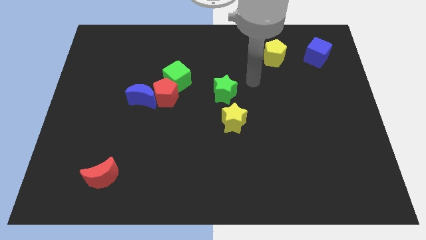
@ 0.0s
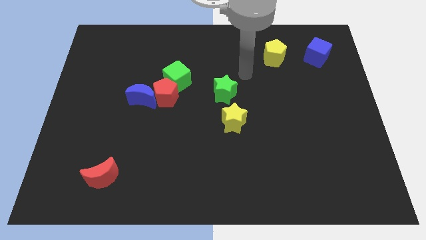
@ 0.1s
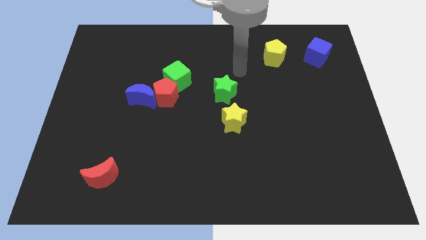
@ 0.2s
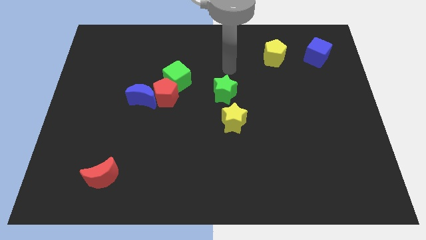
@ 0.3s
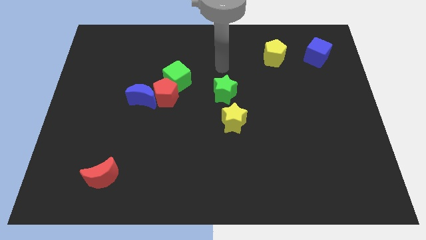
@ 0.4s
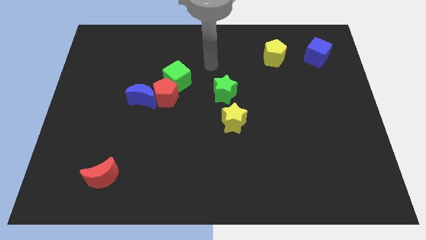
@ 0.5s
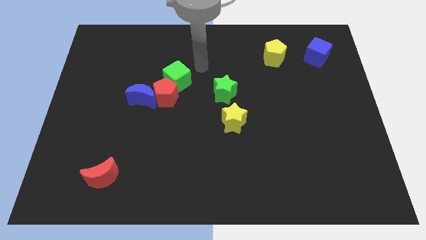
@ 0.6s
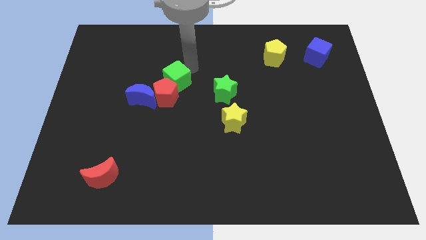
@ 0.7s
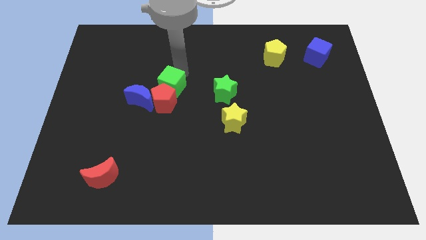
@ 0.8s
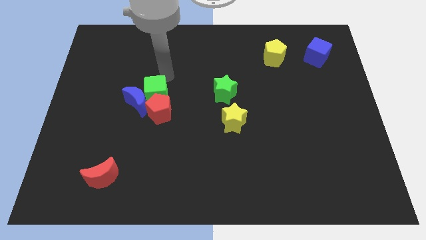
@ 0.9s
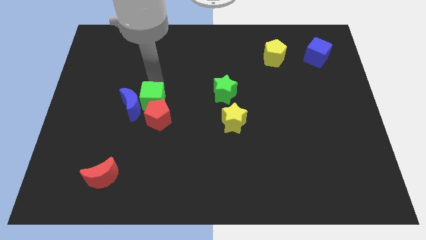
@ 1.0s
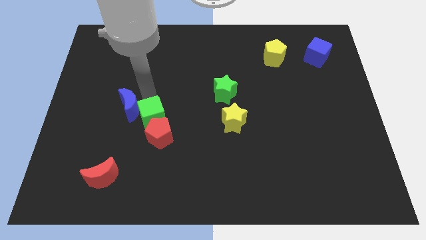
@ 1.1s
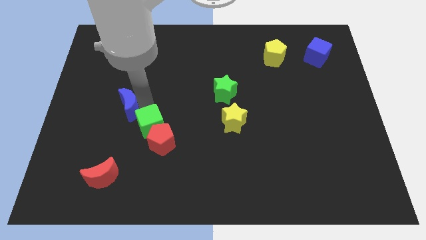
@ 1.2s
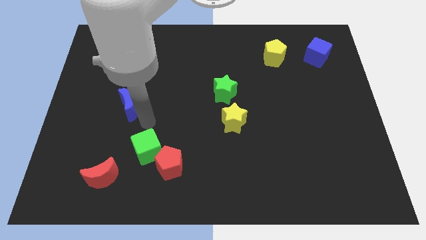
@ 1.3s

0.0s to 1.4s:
move the red pentagon away from the blue moon and green cube

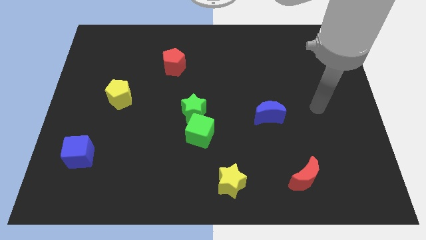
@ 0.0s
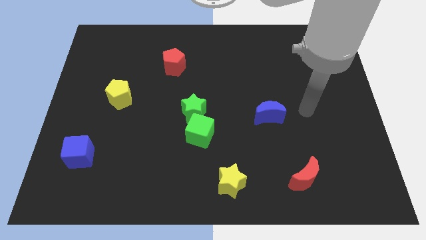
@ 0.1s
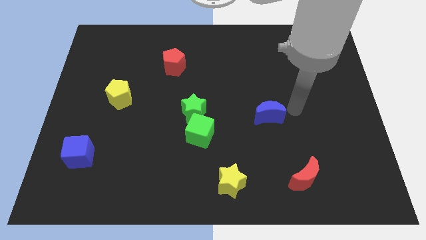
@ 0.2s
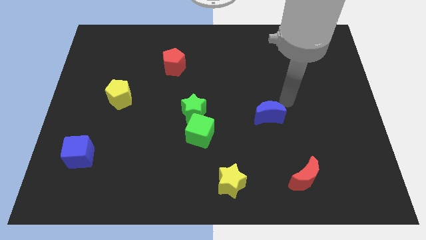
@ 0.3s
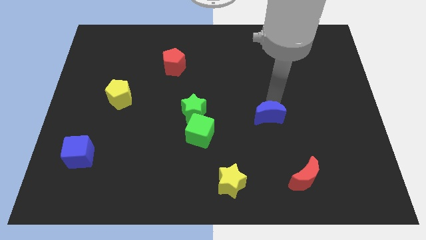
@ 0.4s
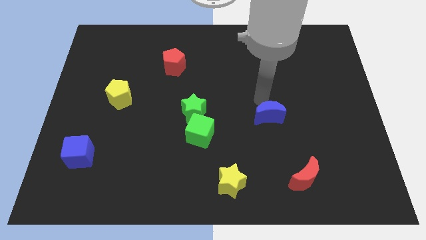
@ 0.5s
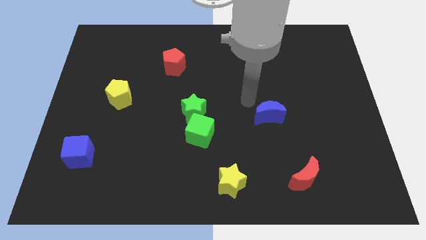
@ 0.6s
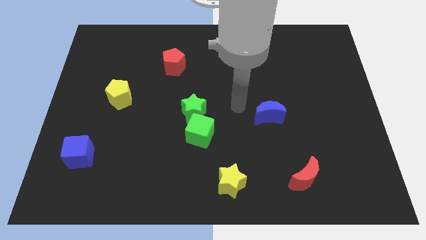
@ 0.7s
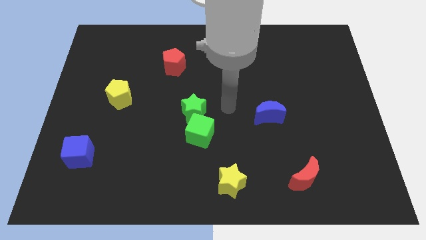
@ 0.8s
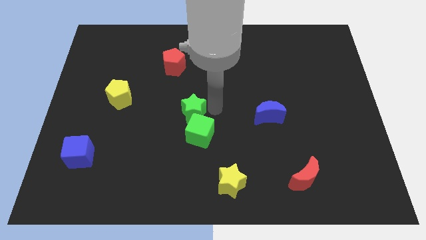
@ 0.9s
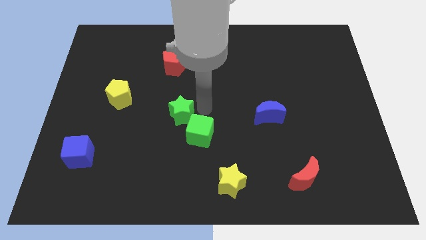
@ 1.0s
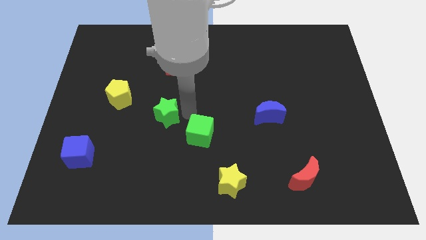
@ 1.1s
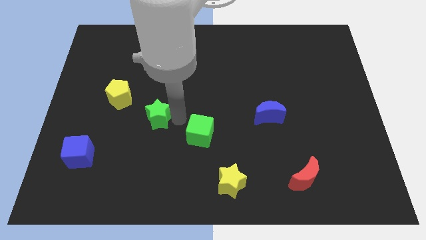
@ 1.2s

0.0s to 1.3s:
separate the green cube from the green star

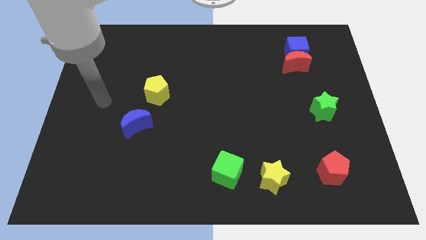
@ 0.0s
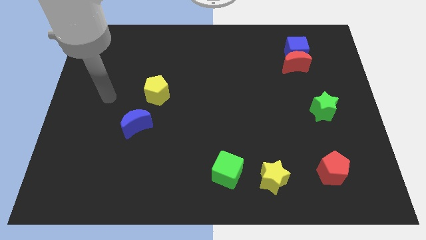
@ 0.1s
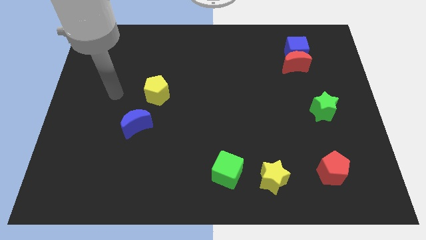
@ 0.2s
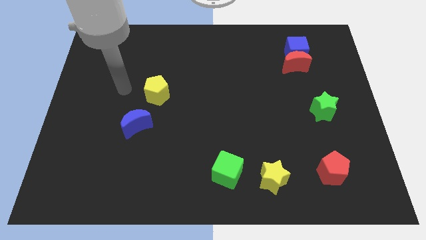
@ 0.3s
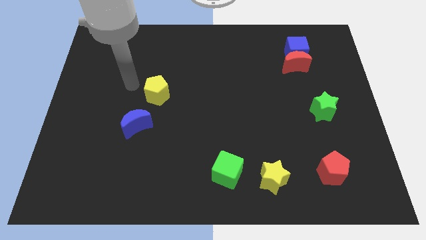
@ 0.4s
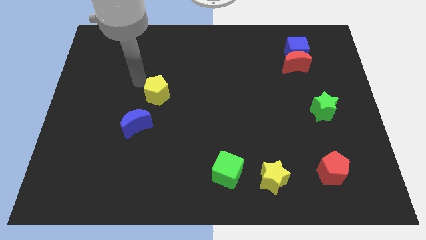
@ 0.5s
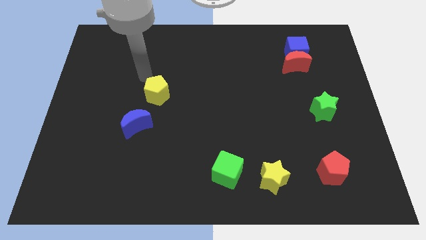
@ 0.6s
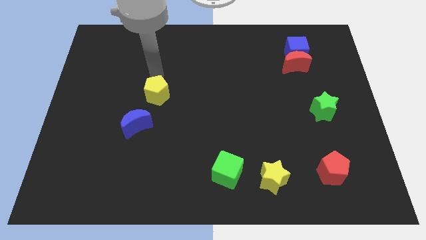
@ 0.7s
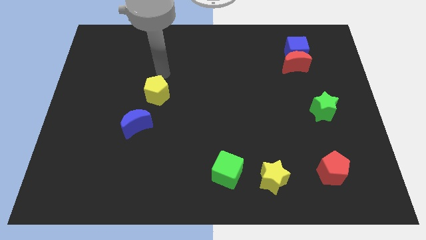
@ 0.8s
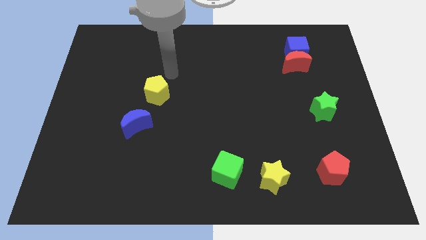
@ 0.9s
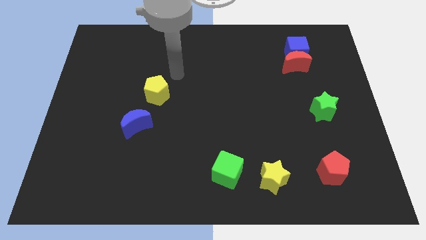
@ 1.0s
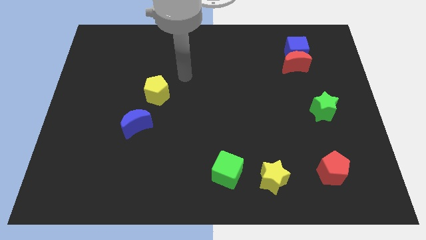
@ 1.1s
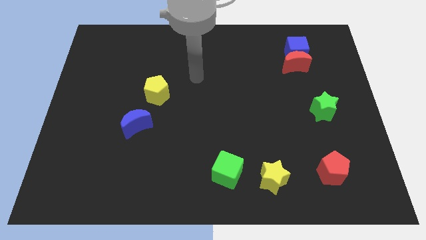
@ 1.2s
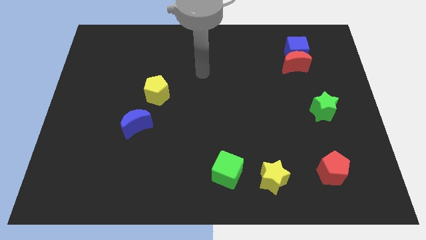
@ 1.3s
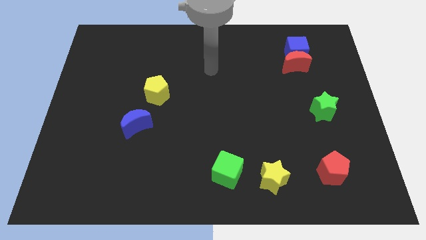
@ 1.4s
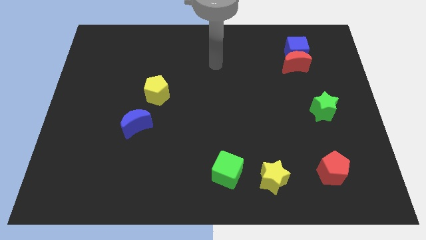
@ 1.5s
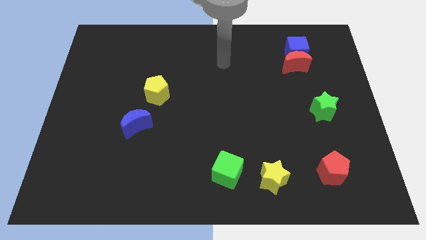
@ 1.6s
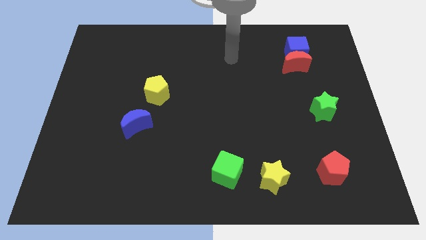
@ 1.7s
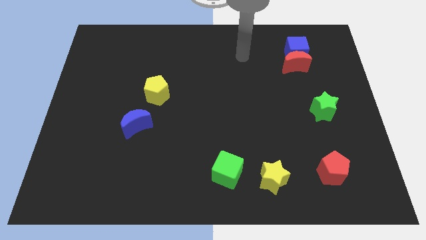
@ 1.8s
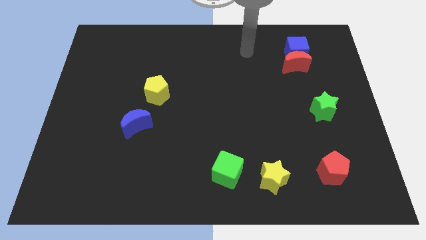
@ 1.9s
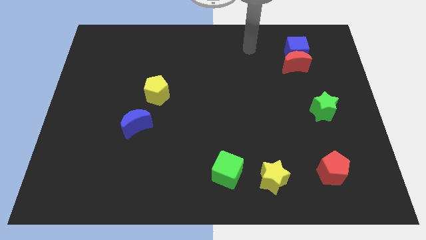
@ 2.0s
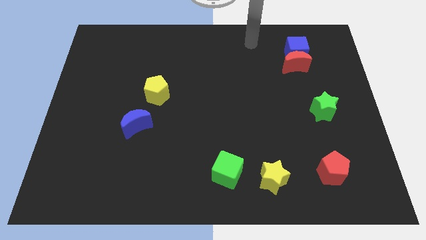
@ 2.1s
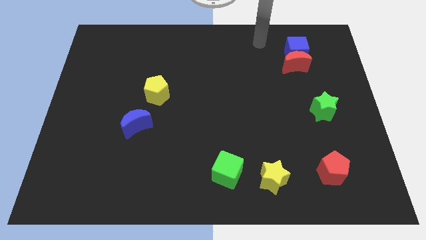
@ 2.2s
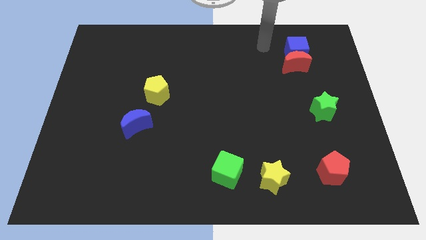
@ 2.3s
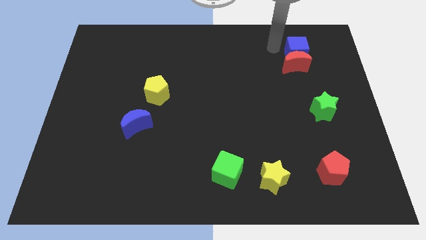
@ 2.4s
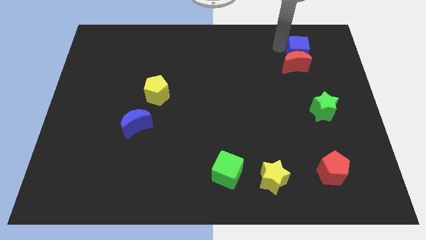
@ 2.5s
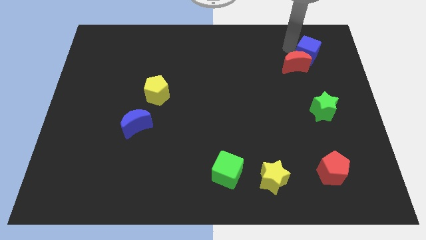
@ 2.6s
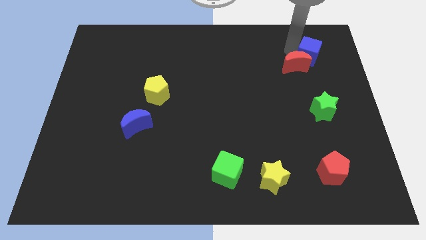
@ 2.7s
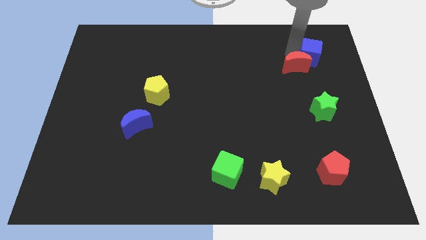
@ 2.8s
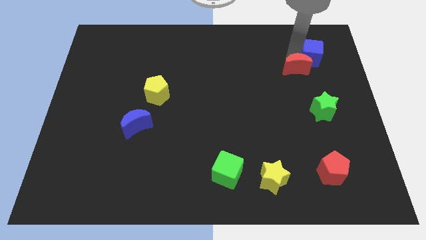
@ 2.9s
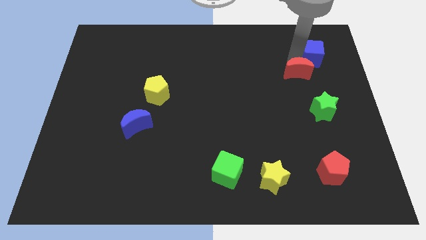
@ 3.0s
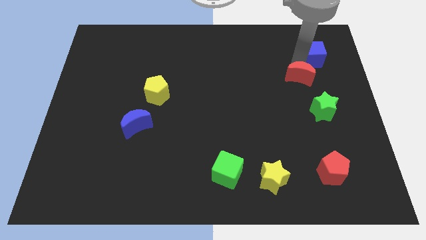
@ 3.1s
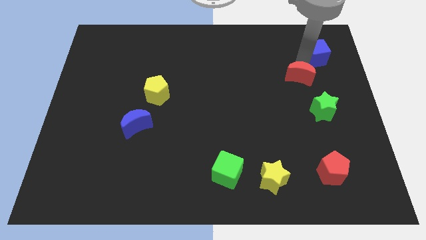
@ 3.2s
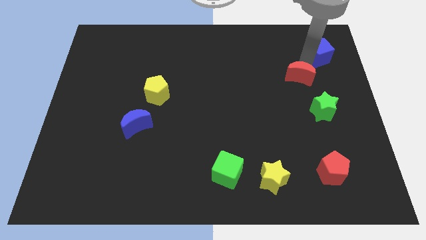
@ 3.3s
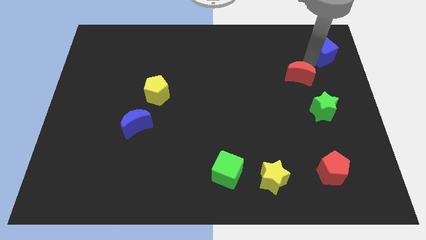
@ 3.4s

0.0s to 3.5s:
pull the red moon apart from the blue cube

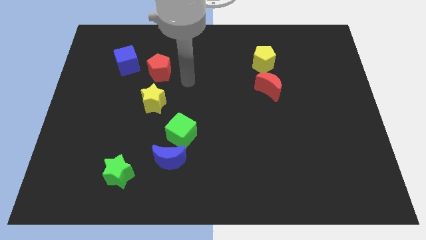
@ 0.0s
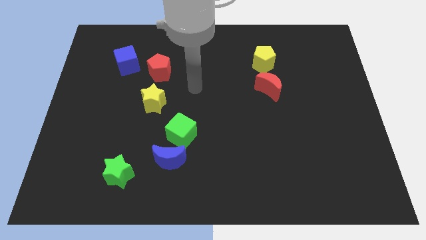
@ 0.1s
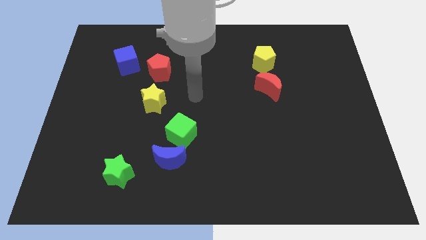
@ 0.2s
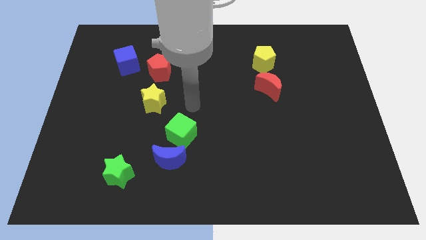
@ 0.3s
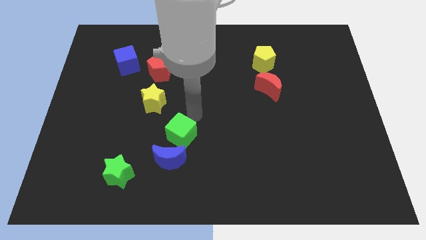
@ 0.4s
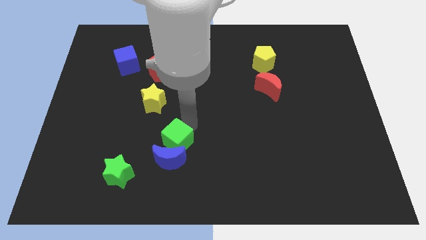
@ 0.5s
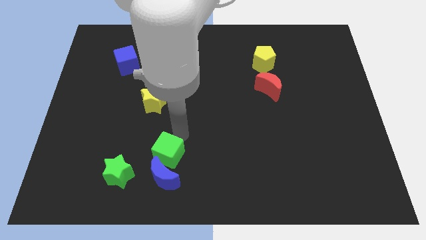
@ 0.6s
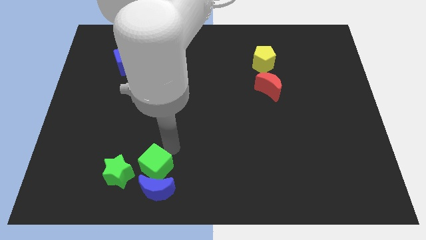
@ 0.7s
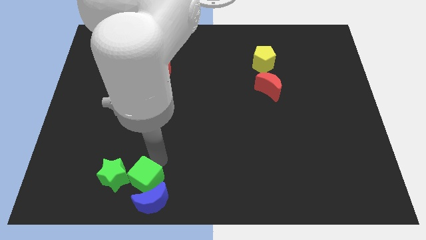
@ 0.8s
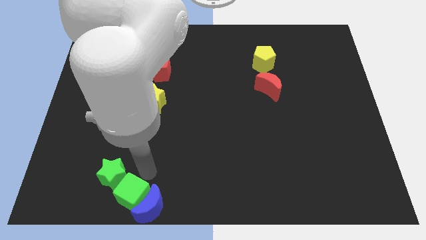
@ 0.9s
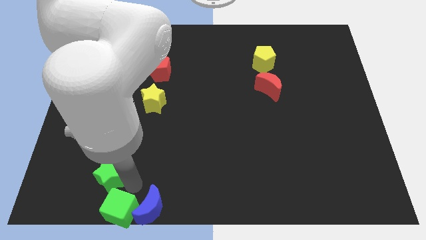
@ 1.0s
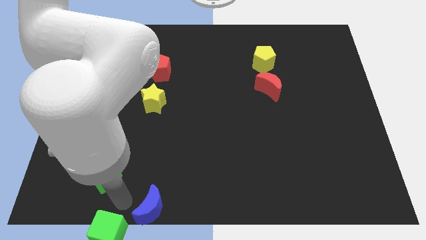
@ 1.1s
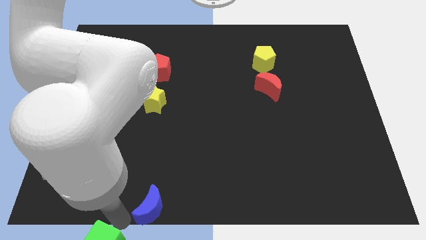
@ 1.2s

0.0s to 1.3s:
pull the blue moon apart from the green cube

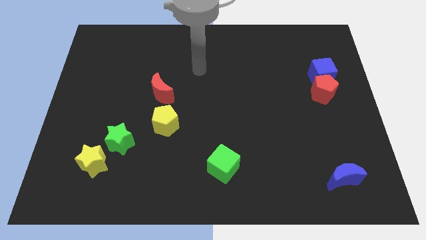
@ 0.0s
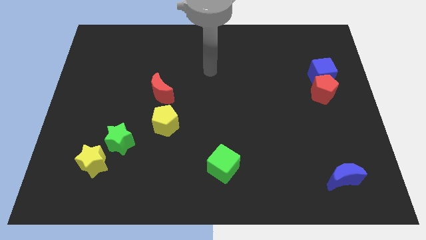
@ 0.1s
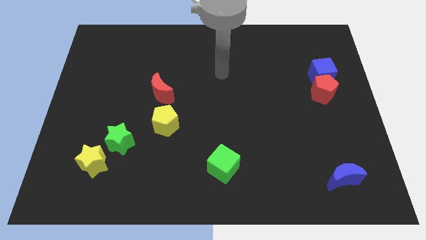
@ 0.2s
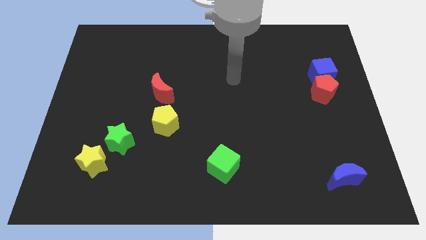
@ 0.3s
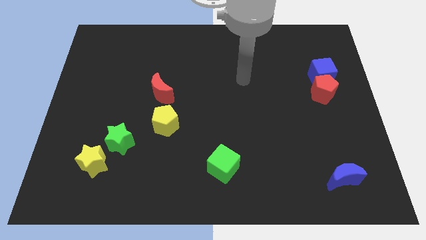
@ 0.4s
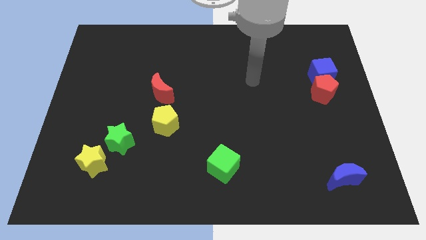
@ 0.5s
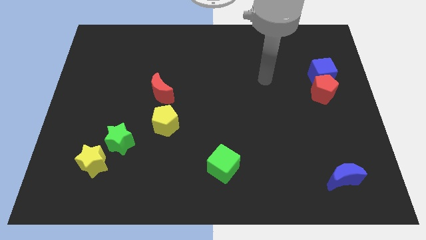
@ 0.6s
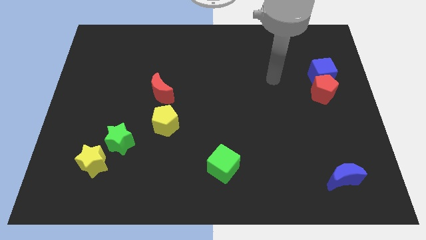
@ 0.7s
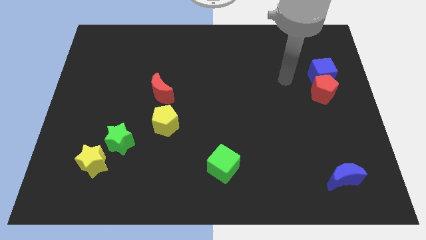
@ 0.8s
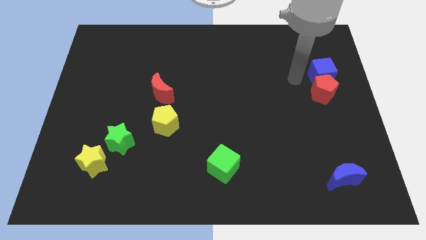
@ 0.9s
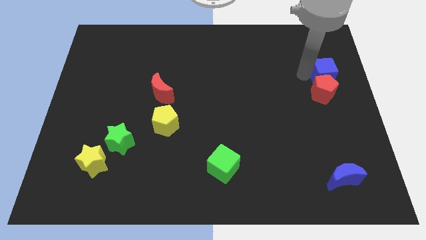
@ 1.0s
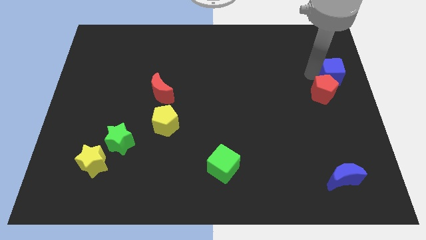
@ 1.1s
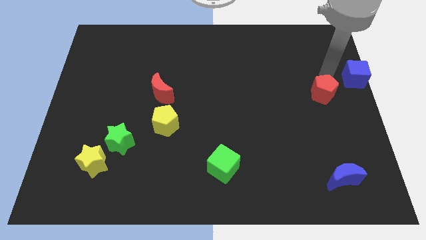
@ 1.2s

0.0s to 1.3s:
pull the red pentagon apart from the blue cube

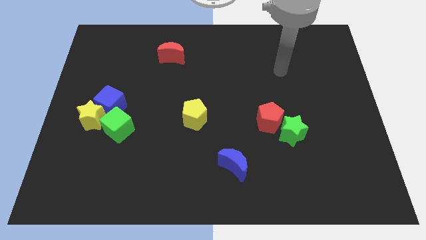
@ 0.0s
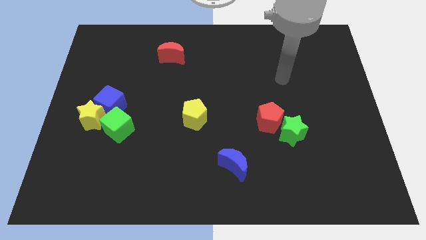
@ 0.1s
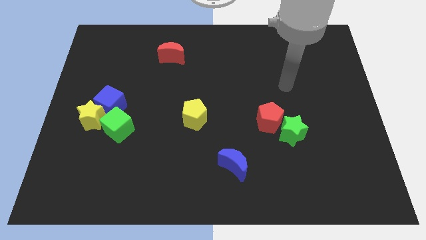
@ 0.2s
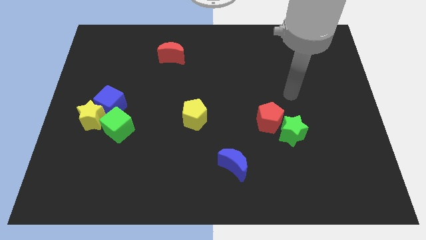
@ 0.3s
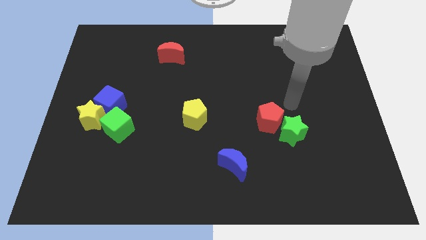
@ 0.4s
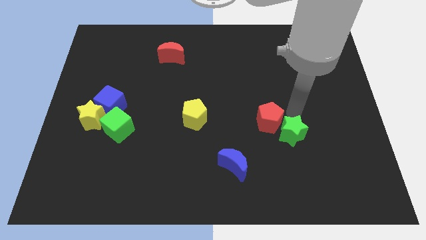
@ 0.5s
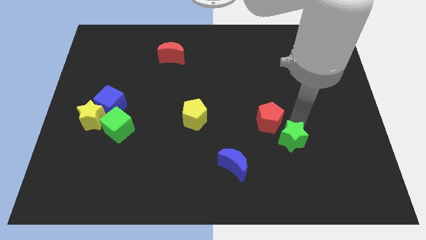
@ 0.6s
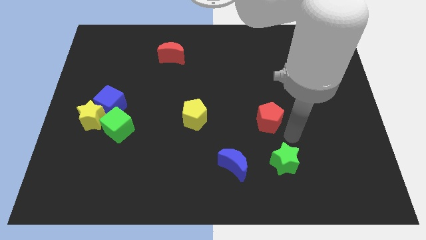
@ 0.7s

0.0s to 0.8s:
pull the red pentagon apart from the green star
